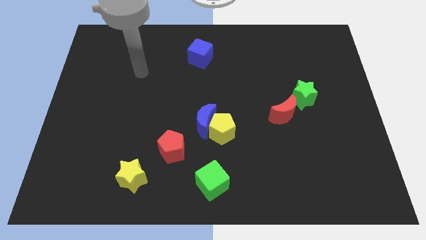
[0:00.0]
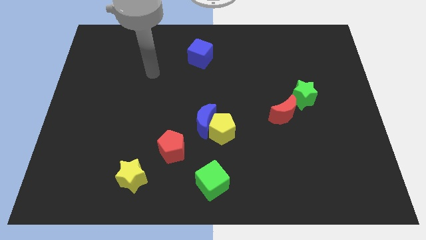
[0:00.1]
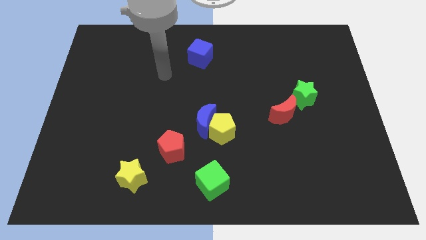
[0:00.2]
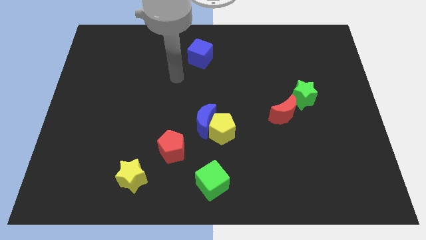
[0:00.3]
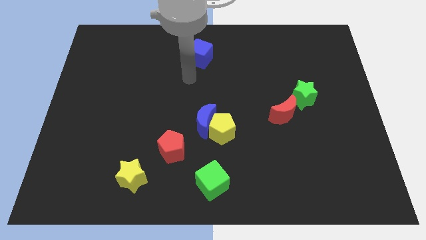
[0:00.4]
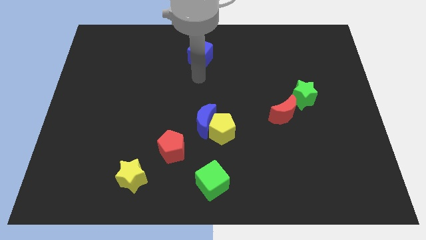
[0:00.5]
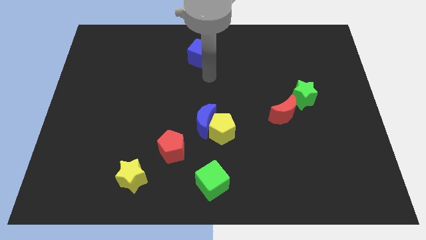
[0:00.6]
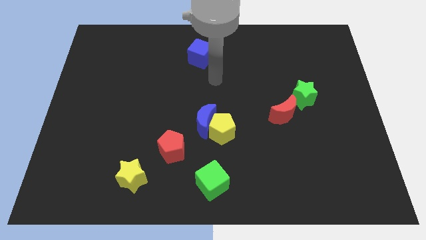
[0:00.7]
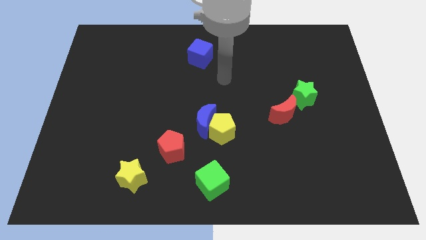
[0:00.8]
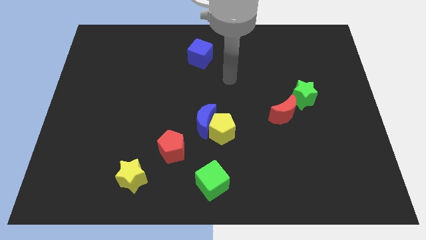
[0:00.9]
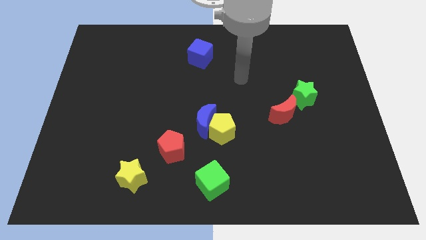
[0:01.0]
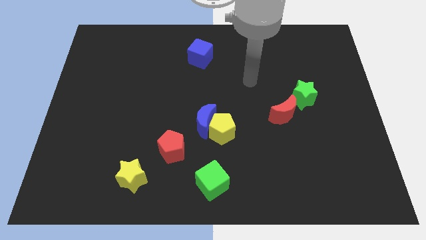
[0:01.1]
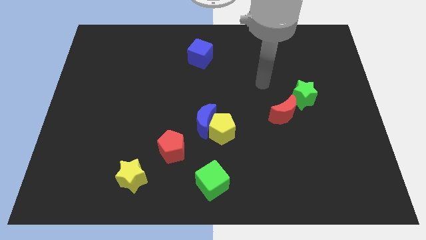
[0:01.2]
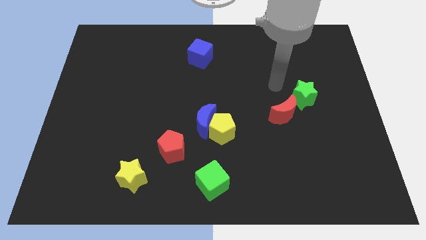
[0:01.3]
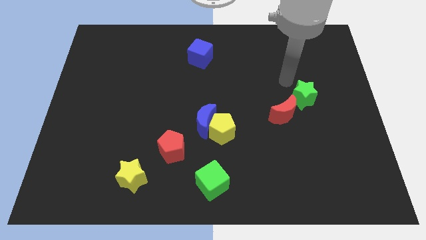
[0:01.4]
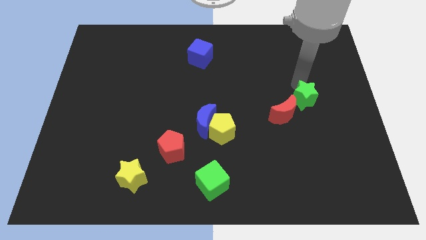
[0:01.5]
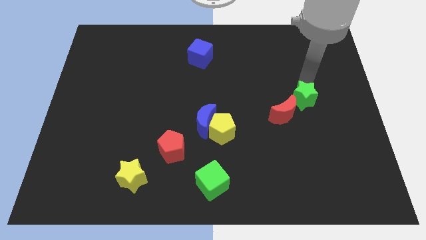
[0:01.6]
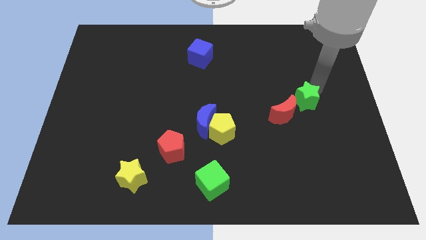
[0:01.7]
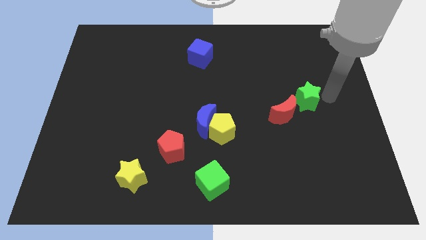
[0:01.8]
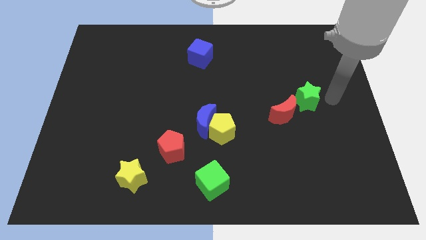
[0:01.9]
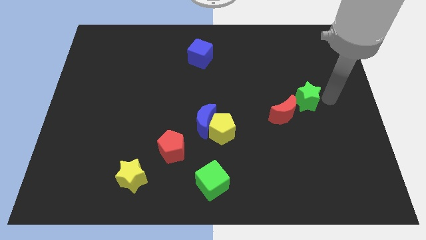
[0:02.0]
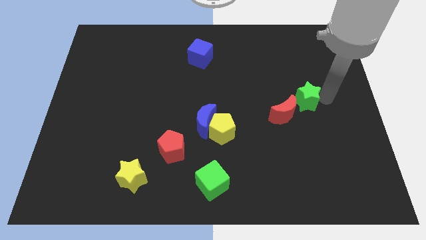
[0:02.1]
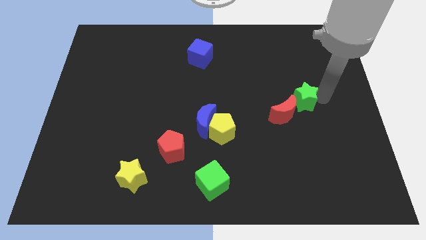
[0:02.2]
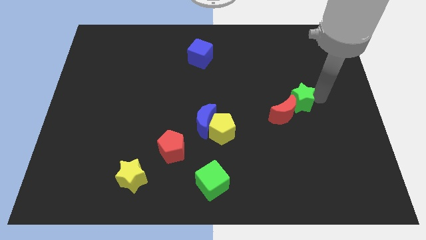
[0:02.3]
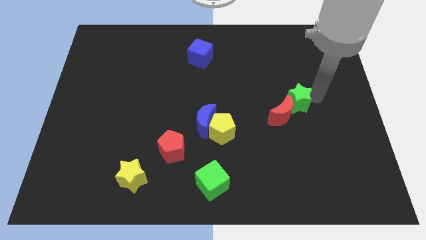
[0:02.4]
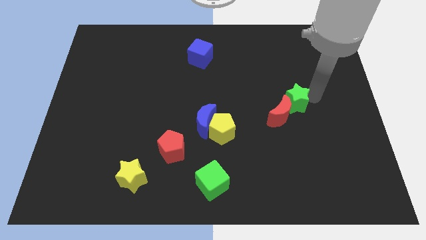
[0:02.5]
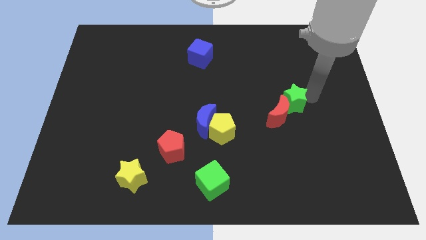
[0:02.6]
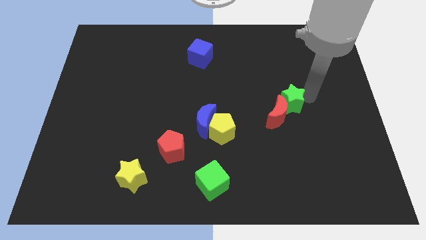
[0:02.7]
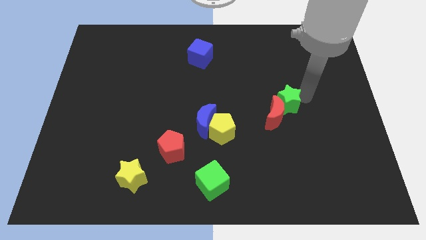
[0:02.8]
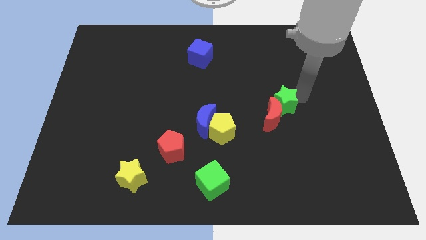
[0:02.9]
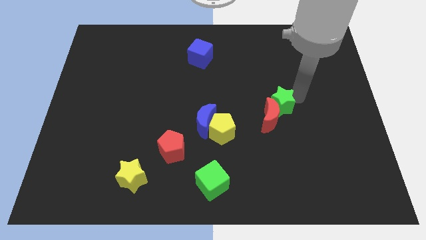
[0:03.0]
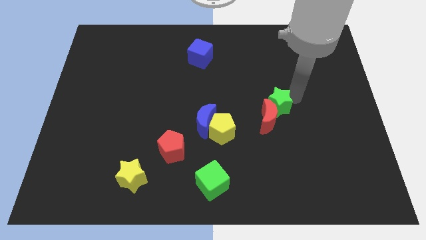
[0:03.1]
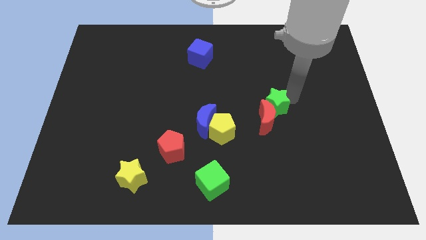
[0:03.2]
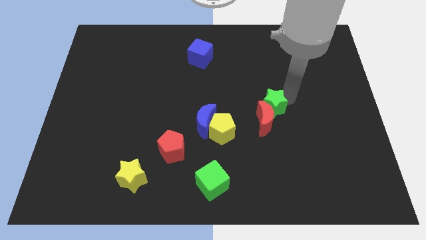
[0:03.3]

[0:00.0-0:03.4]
push the green star downwards and then left slightly

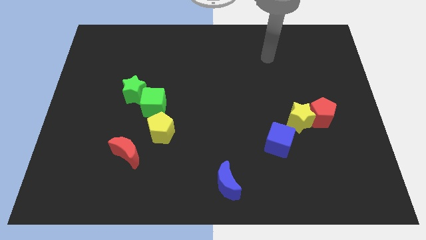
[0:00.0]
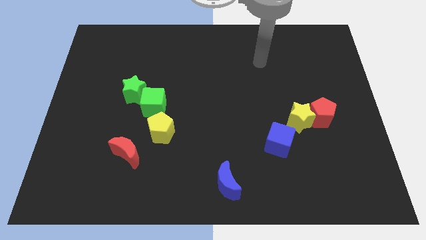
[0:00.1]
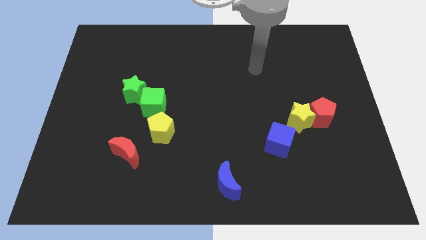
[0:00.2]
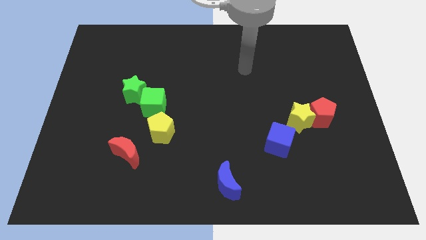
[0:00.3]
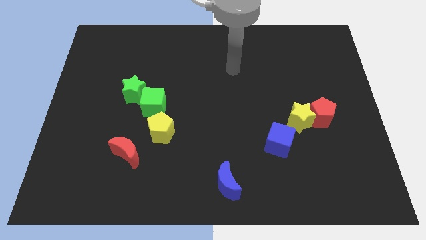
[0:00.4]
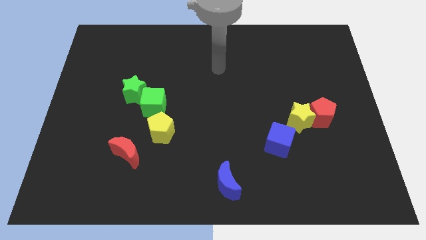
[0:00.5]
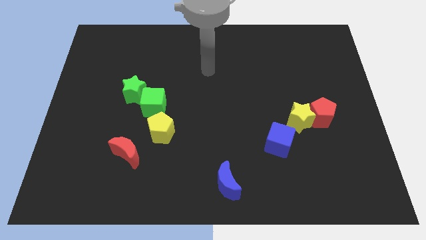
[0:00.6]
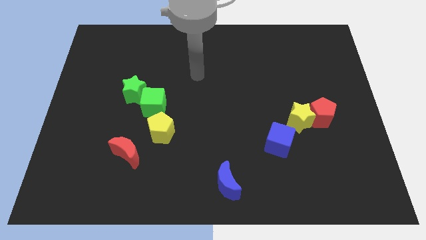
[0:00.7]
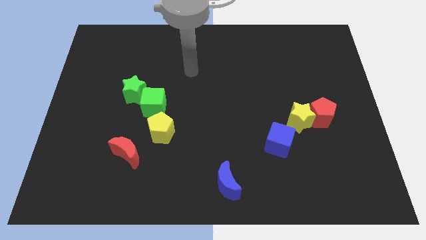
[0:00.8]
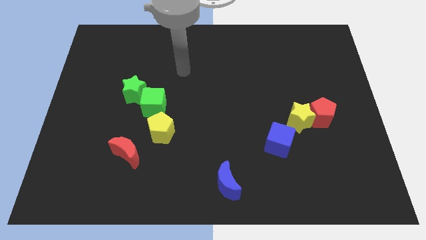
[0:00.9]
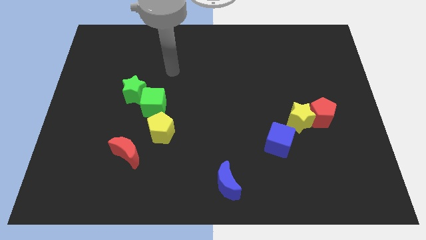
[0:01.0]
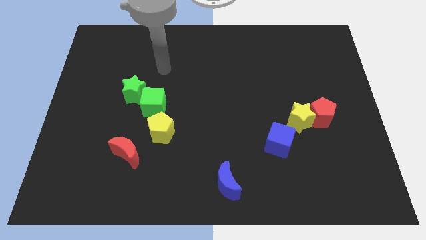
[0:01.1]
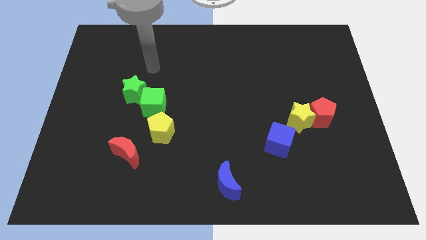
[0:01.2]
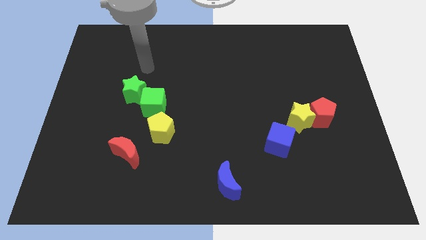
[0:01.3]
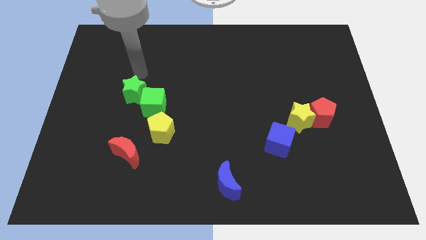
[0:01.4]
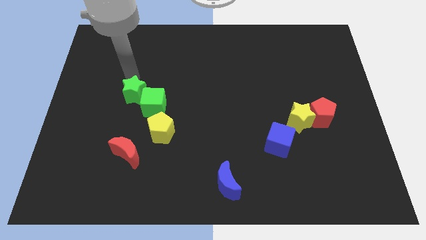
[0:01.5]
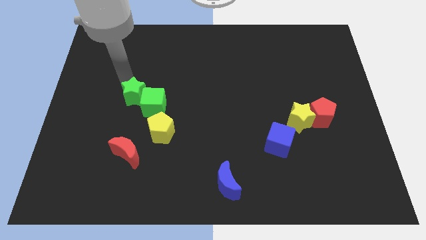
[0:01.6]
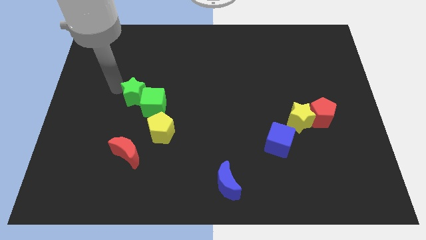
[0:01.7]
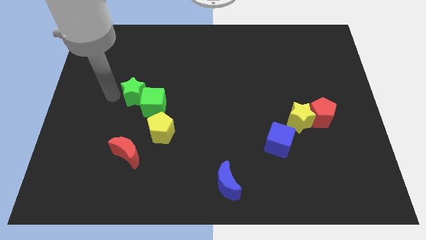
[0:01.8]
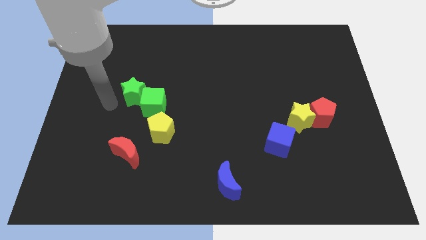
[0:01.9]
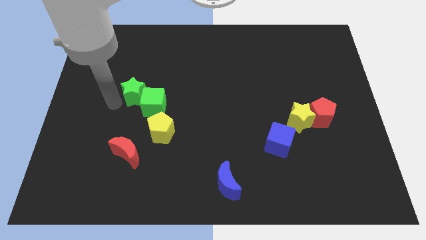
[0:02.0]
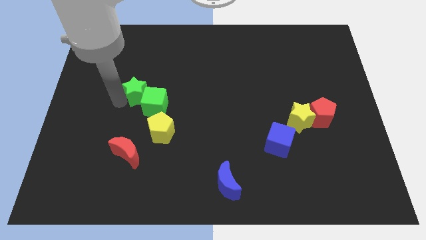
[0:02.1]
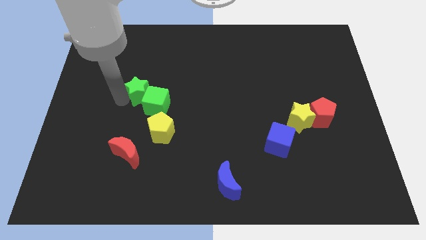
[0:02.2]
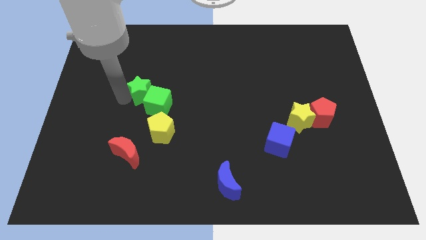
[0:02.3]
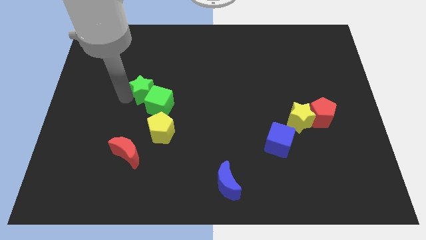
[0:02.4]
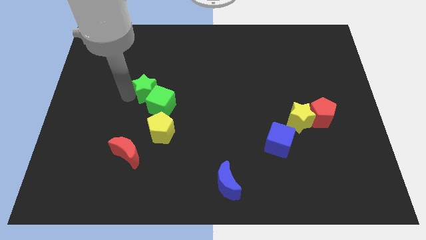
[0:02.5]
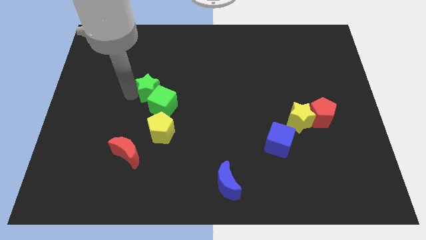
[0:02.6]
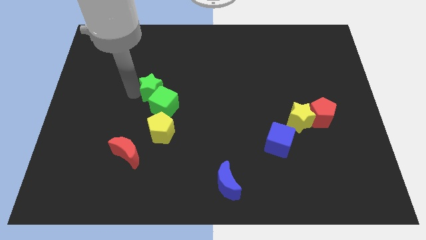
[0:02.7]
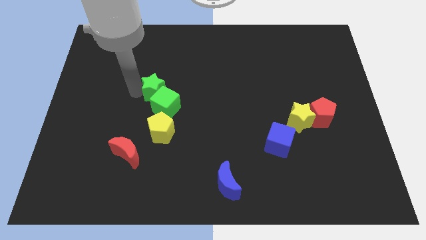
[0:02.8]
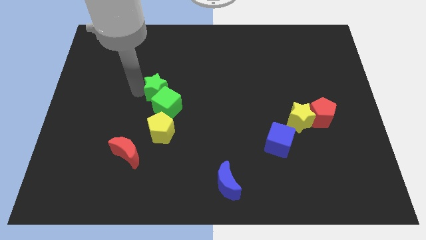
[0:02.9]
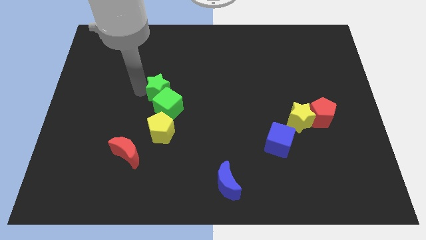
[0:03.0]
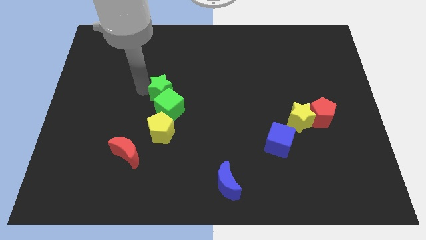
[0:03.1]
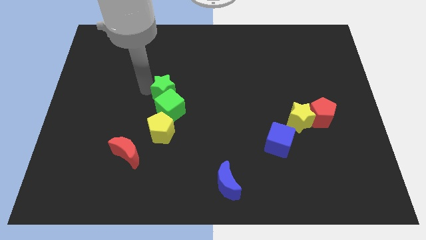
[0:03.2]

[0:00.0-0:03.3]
push the green star slightly to the right

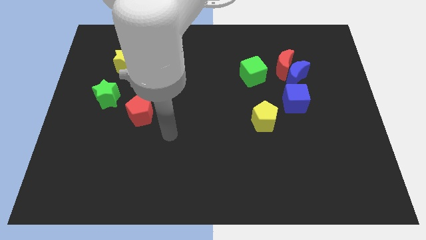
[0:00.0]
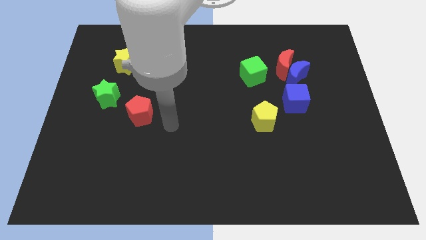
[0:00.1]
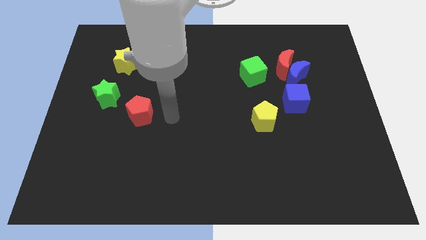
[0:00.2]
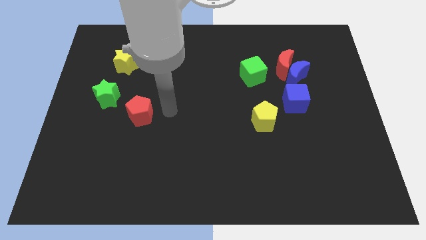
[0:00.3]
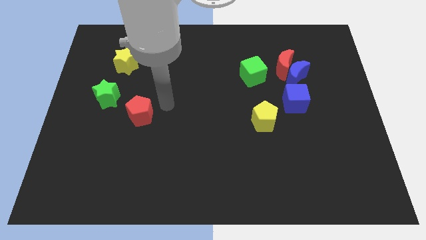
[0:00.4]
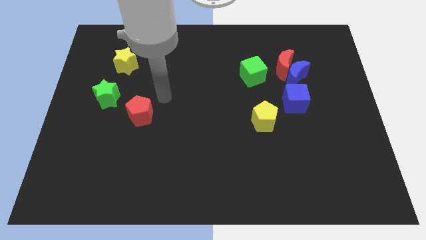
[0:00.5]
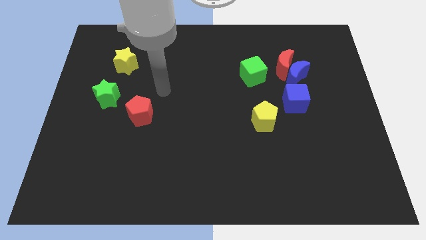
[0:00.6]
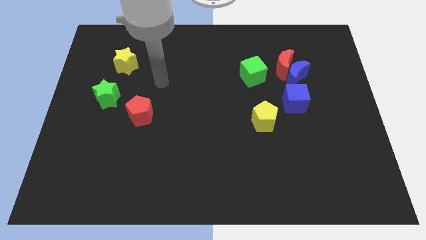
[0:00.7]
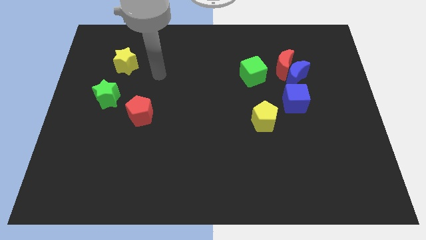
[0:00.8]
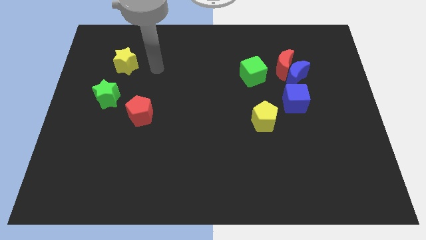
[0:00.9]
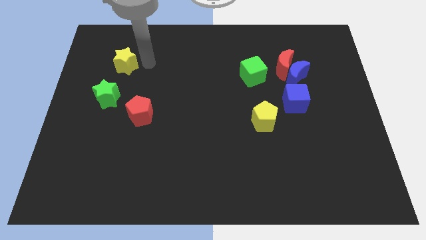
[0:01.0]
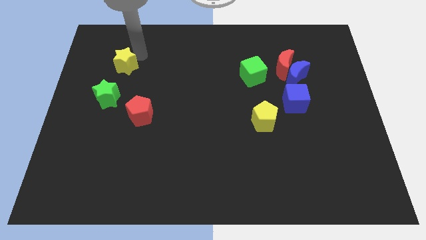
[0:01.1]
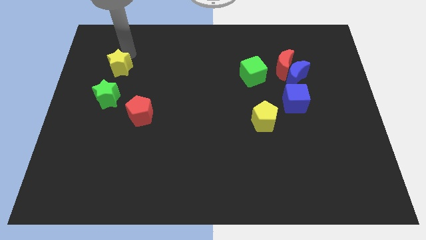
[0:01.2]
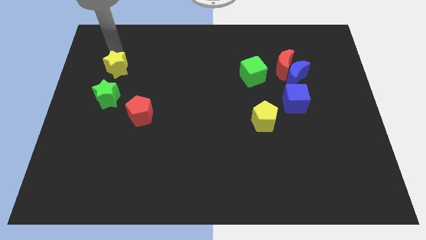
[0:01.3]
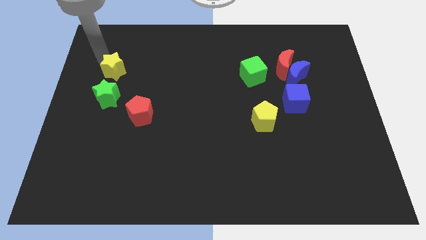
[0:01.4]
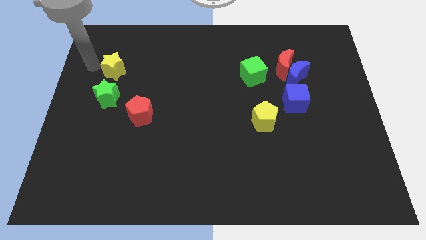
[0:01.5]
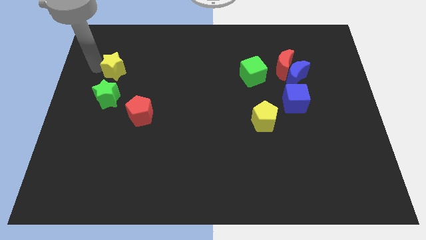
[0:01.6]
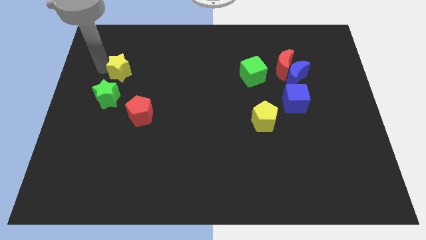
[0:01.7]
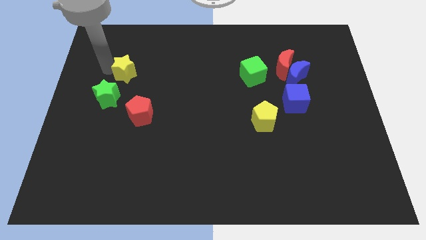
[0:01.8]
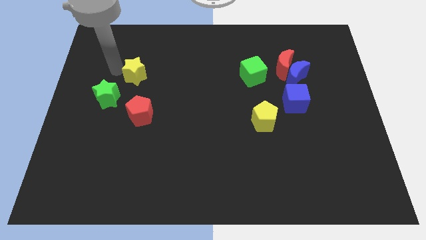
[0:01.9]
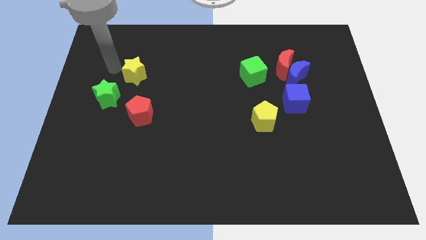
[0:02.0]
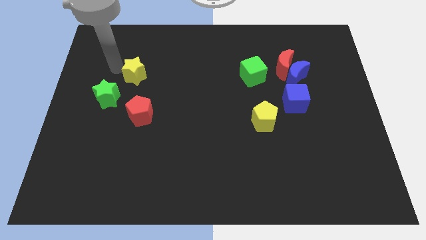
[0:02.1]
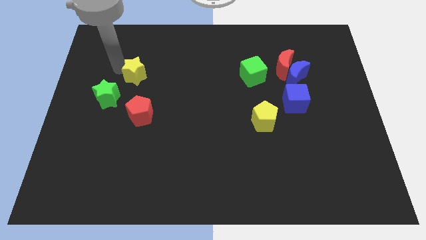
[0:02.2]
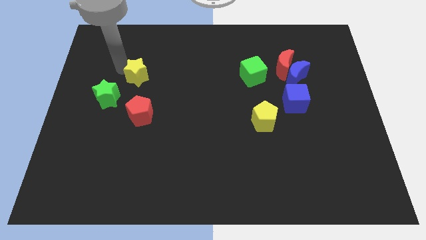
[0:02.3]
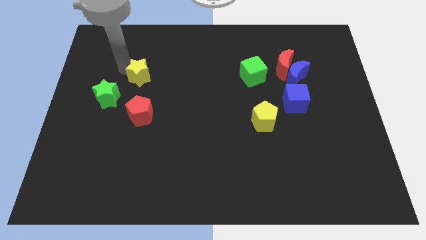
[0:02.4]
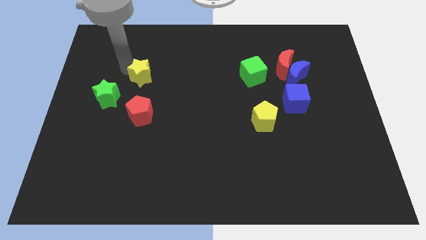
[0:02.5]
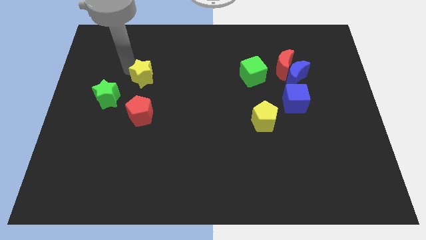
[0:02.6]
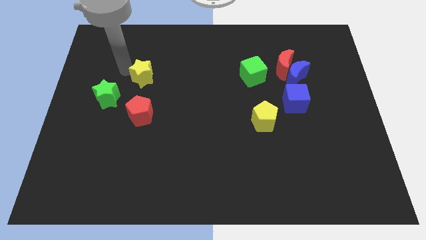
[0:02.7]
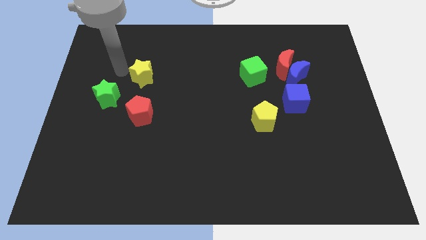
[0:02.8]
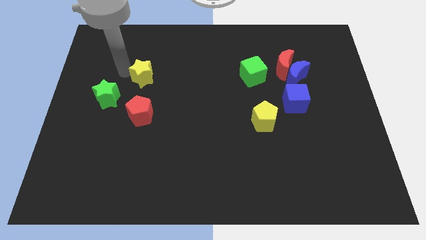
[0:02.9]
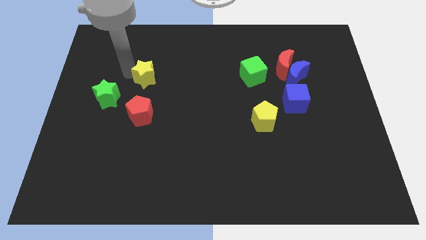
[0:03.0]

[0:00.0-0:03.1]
push the yellow star diagonally down and right a bit
